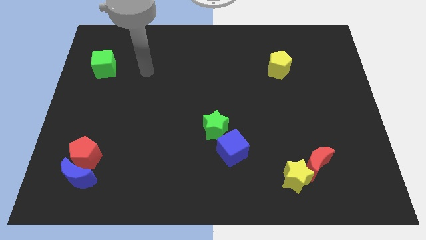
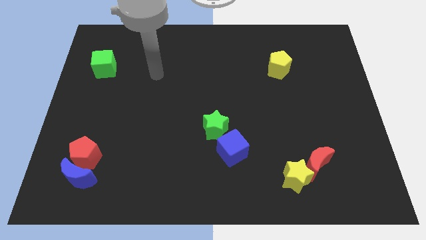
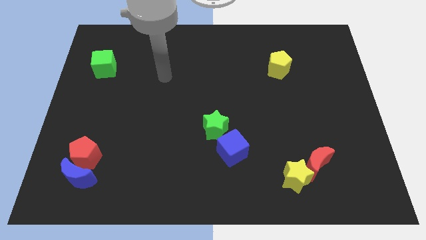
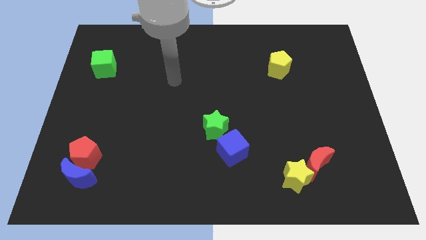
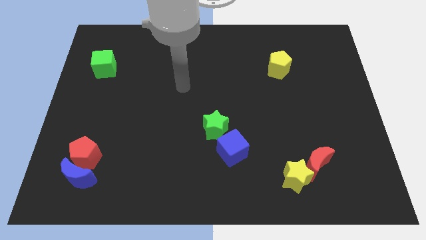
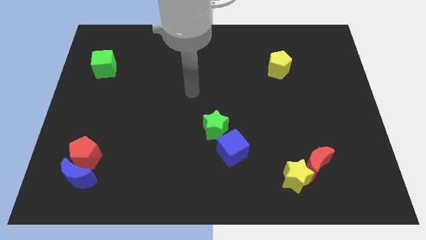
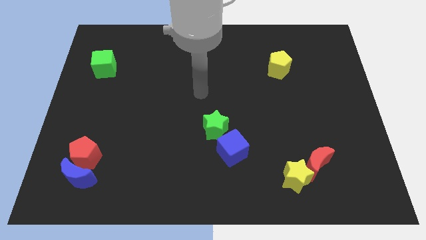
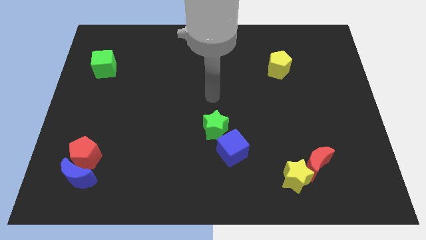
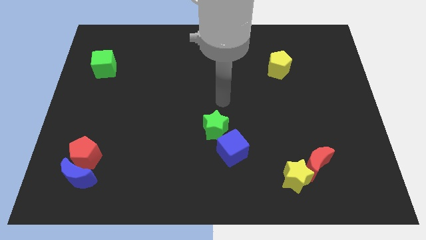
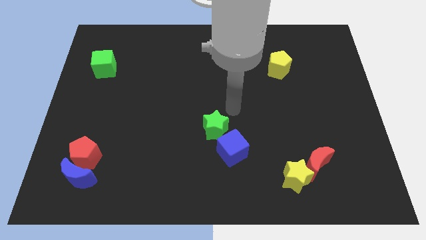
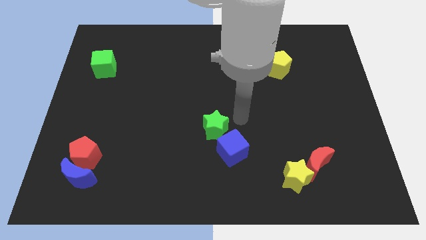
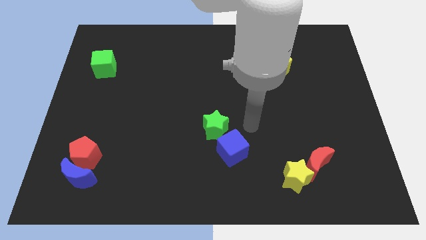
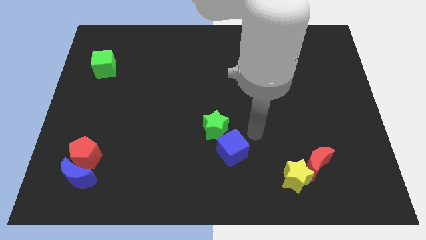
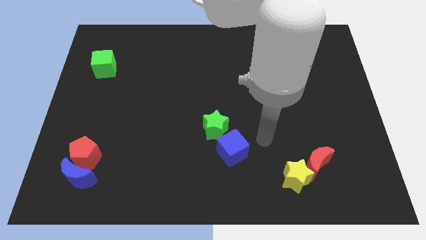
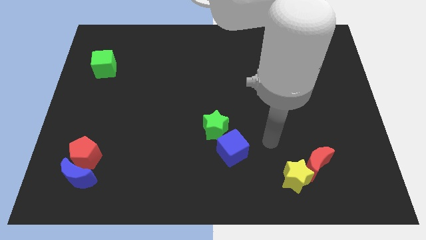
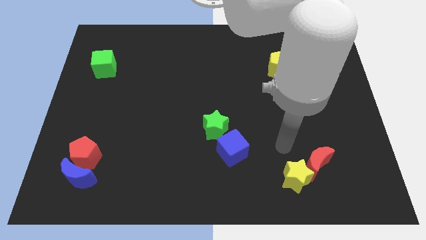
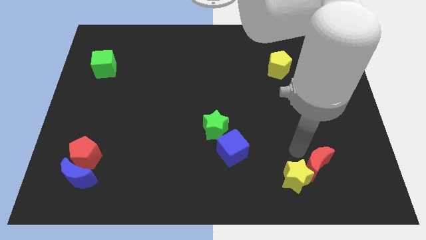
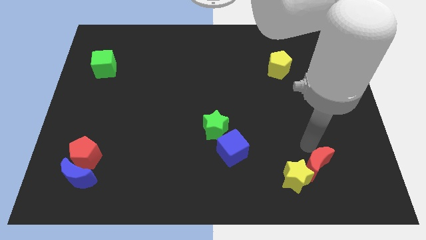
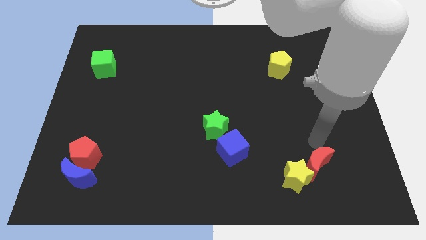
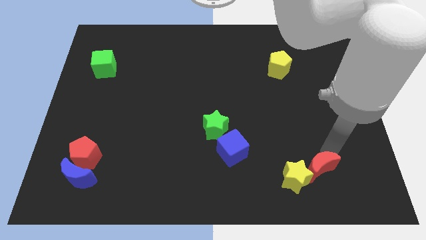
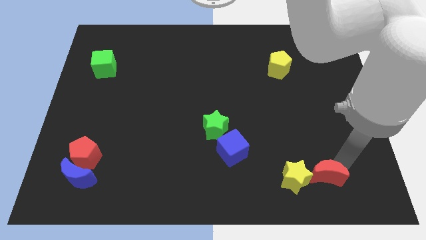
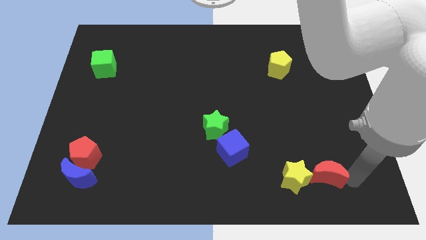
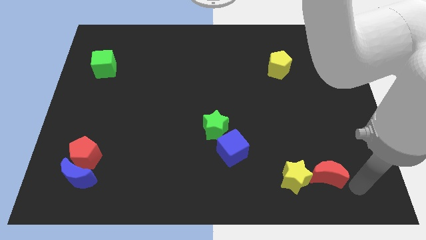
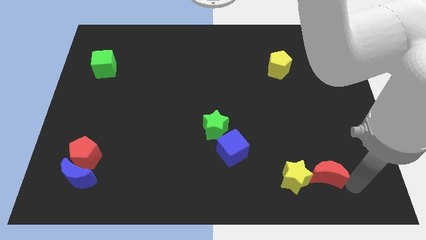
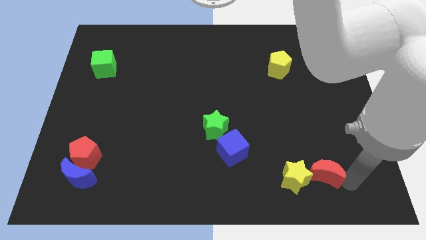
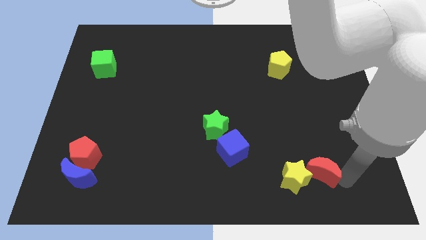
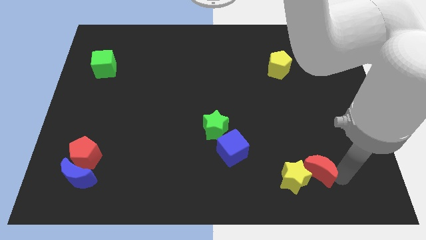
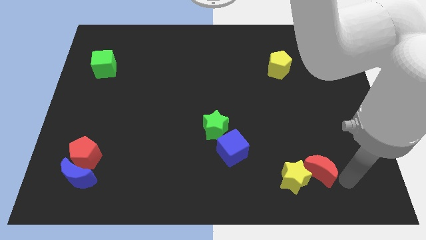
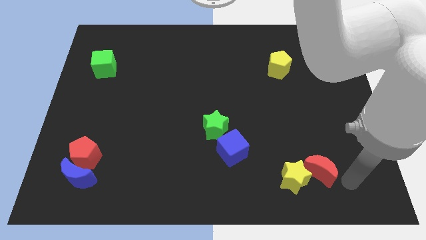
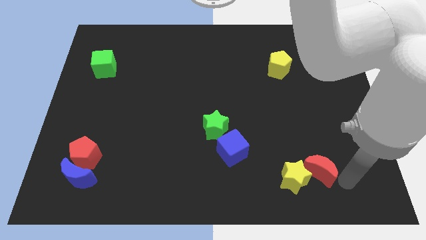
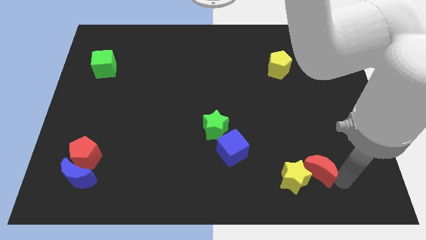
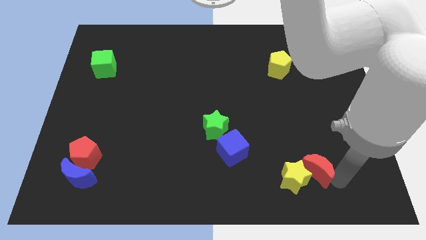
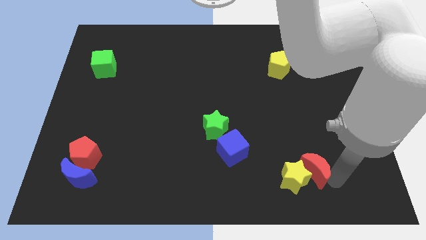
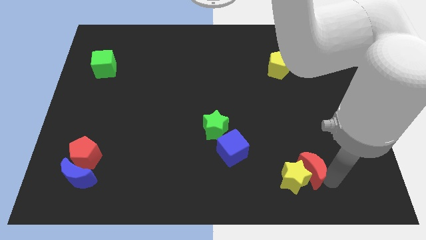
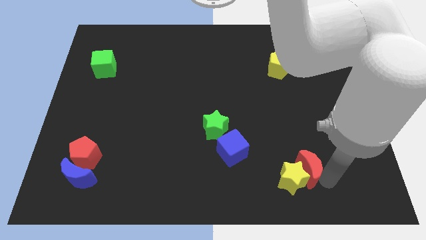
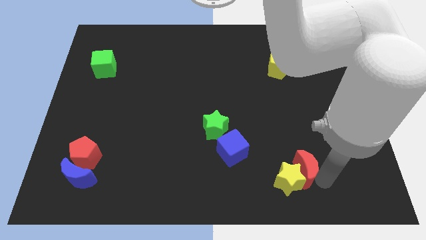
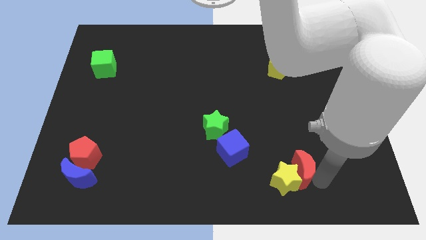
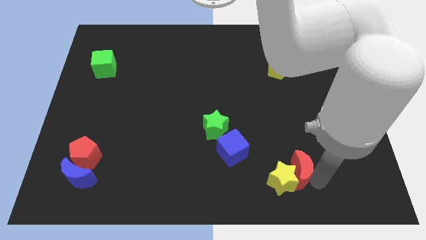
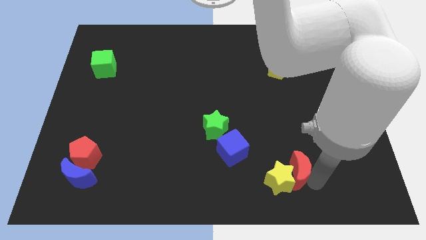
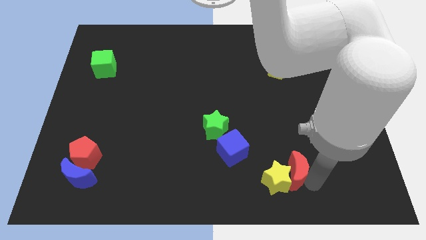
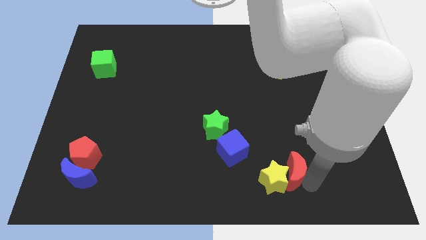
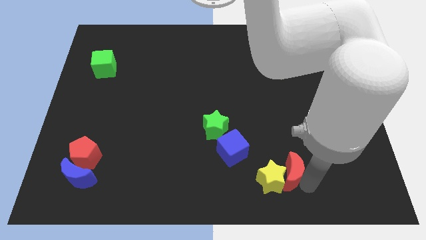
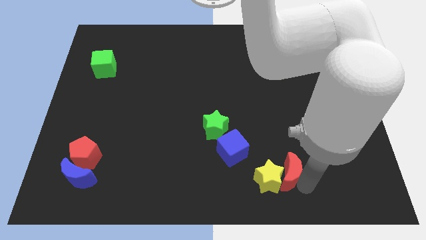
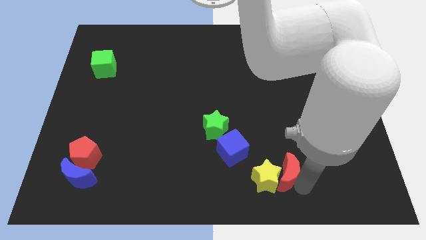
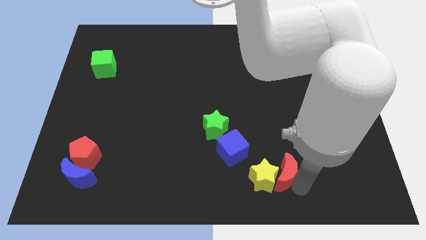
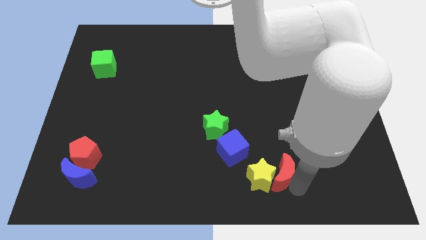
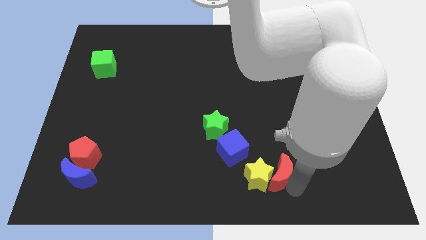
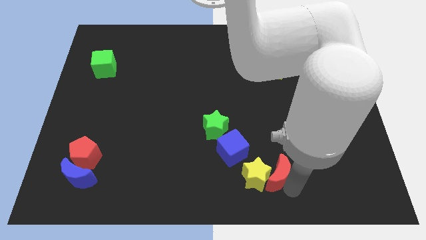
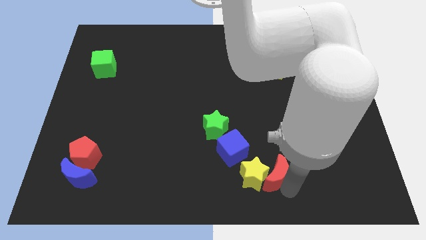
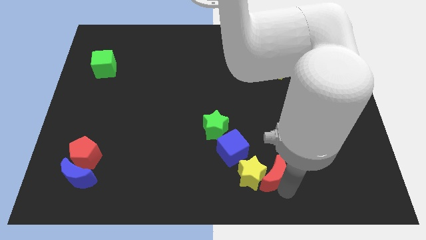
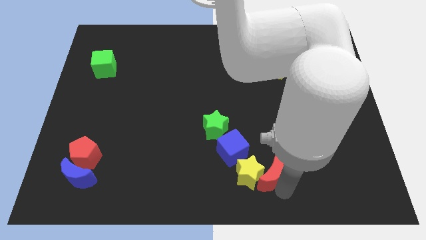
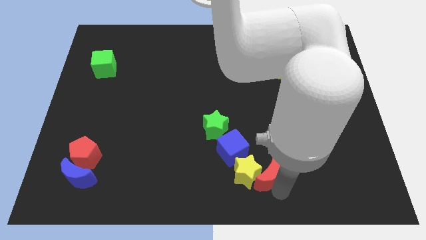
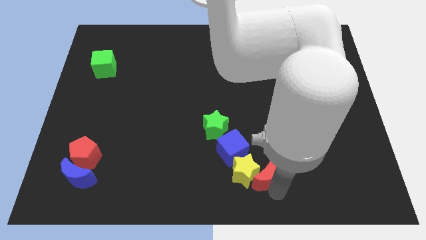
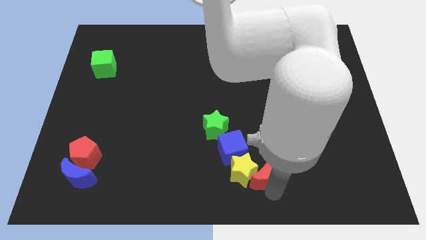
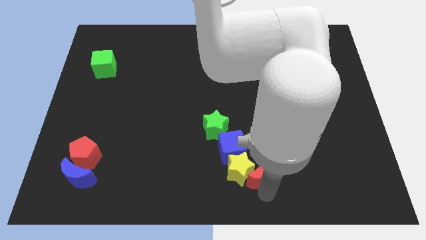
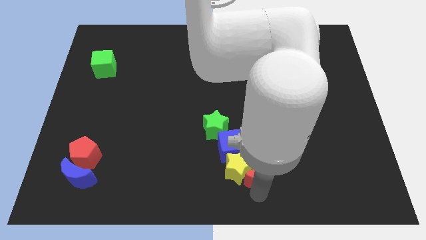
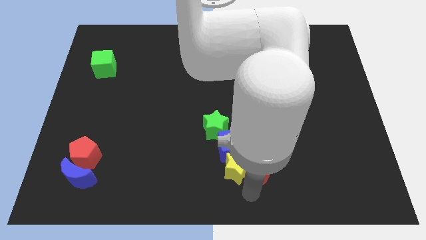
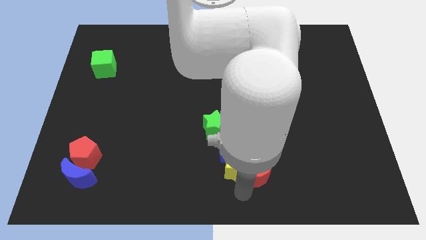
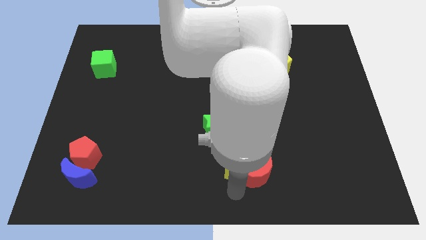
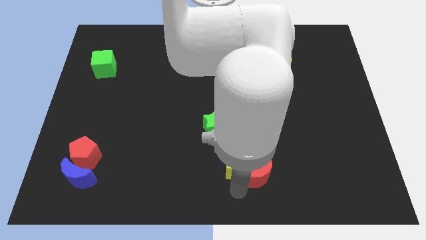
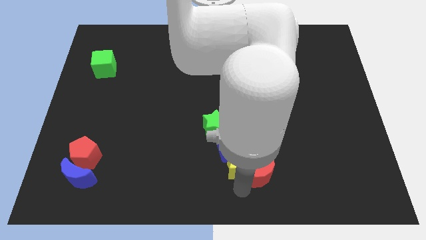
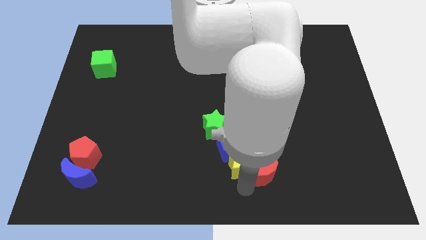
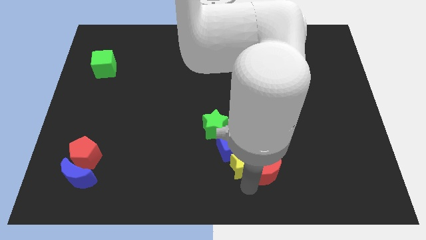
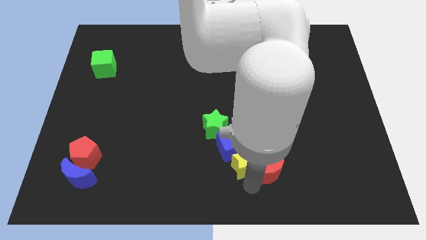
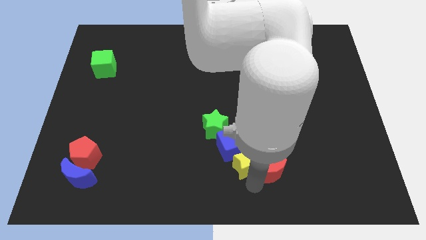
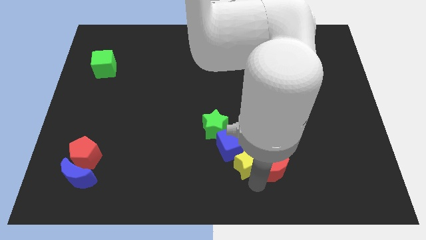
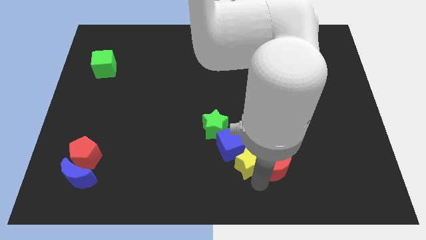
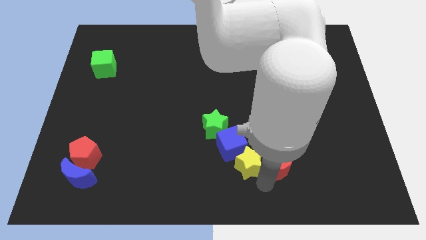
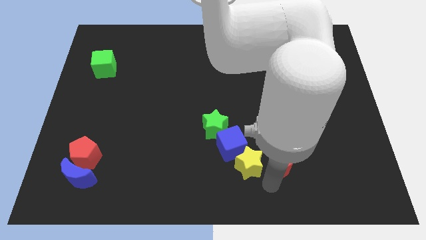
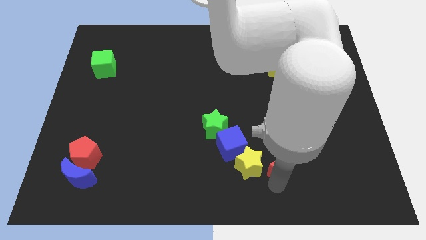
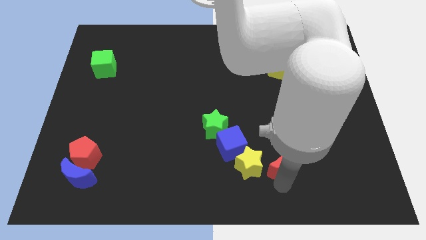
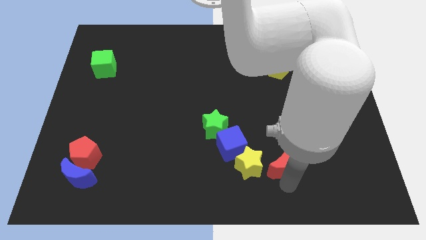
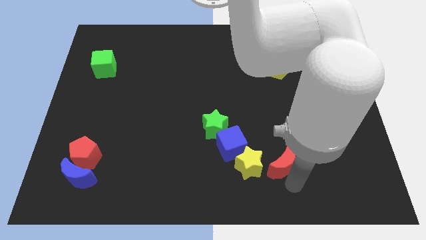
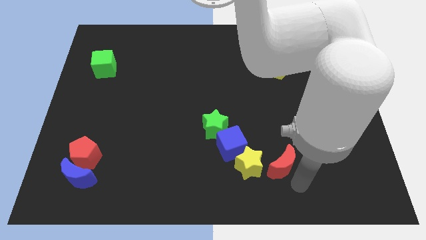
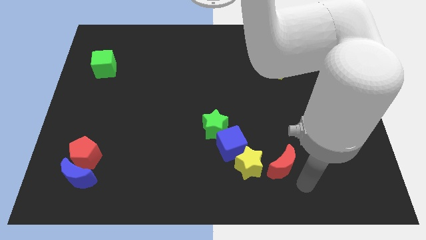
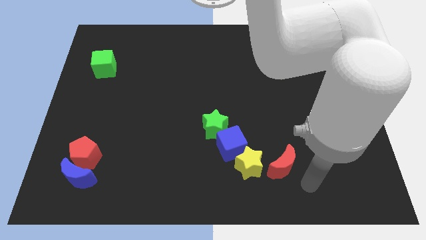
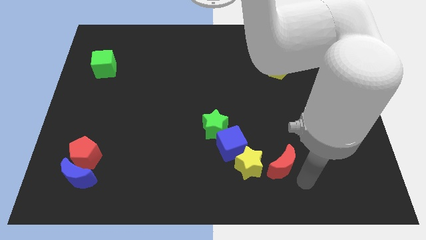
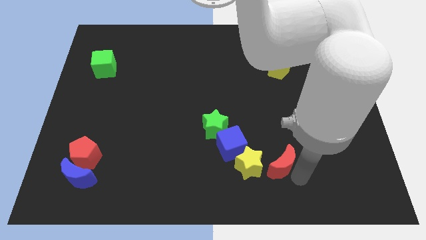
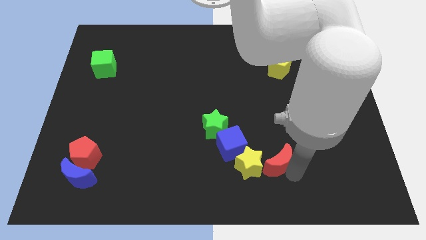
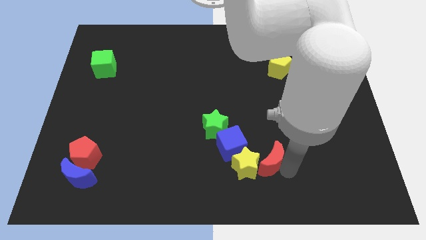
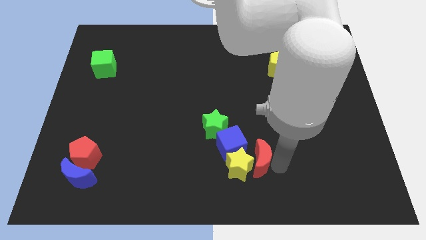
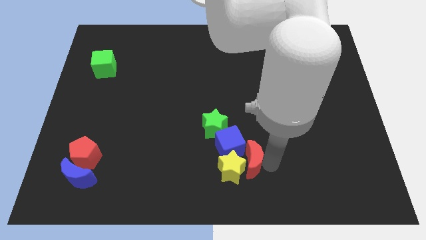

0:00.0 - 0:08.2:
push the red moon close to the blue cube
